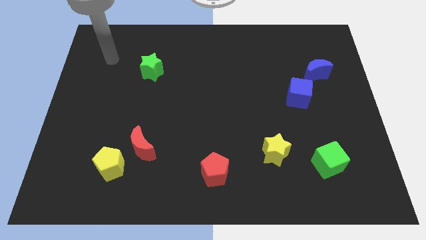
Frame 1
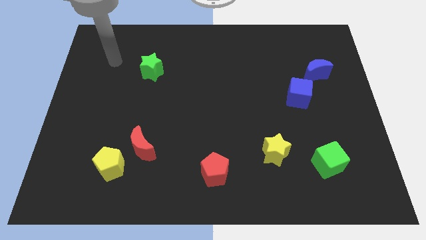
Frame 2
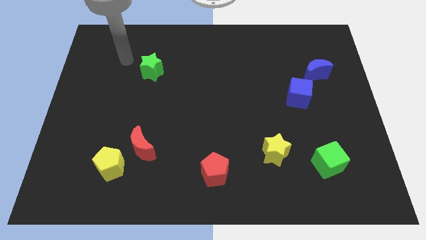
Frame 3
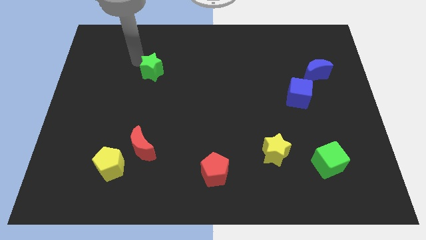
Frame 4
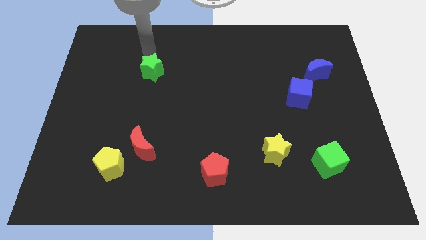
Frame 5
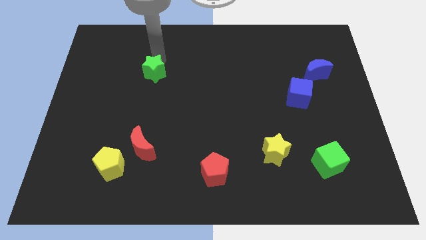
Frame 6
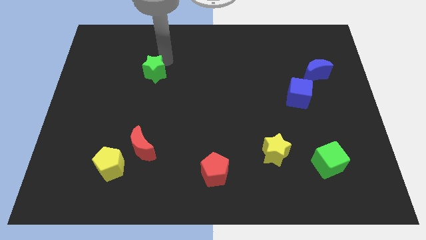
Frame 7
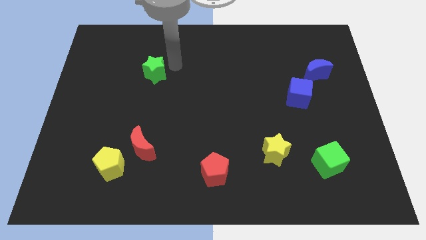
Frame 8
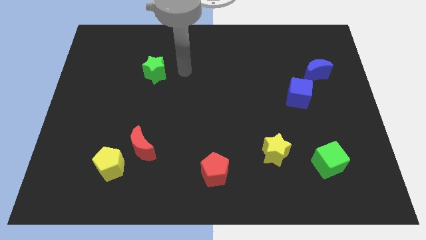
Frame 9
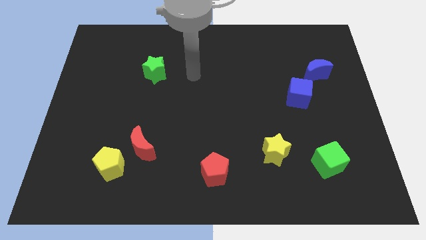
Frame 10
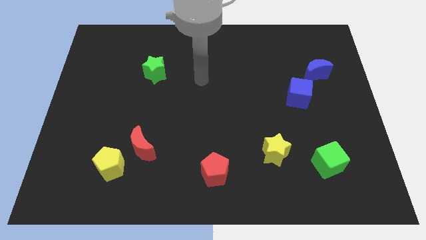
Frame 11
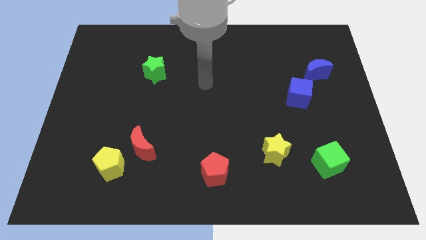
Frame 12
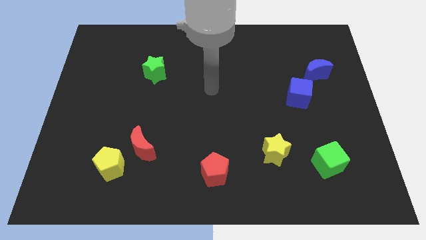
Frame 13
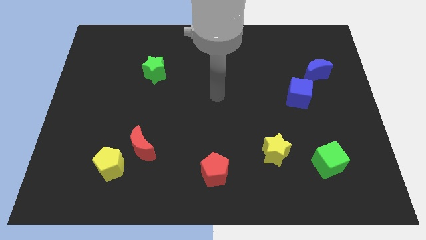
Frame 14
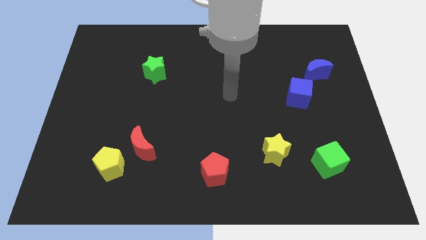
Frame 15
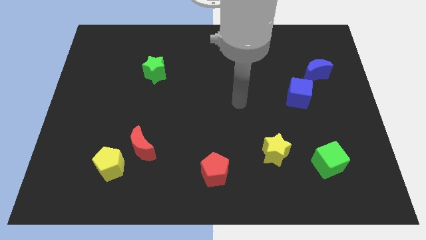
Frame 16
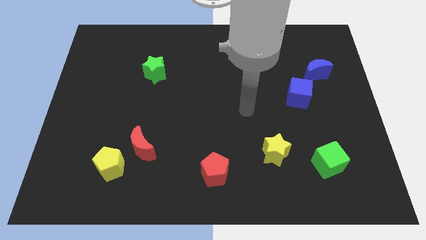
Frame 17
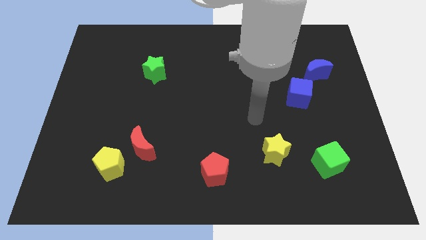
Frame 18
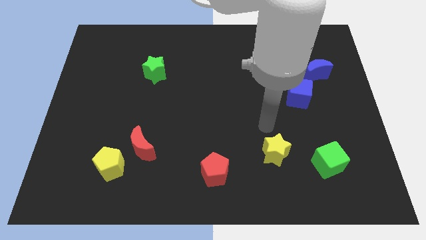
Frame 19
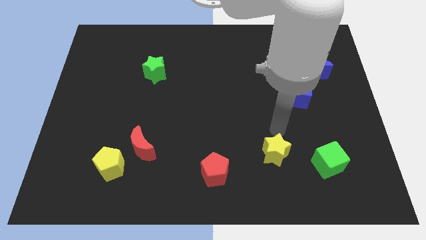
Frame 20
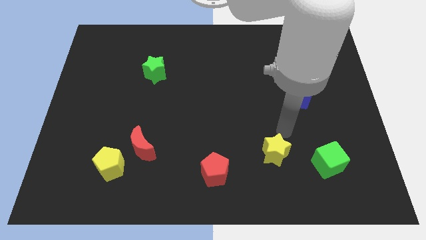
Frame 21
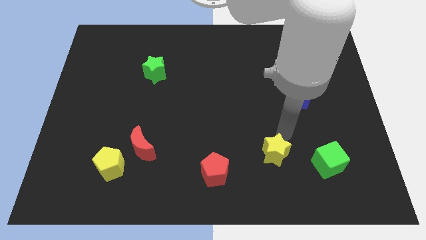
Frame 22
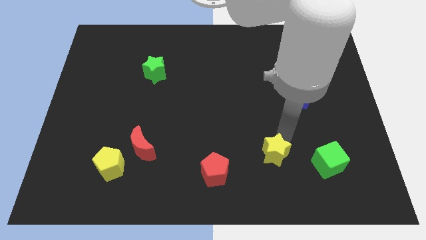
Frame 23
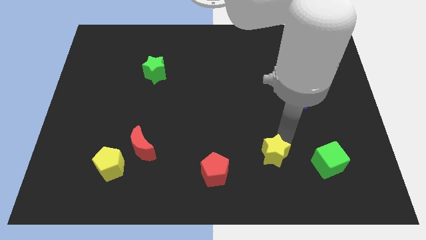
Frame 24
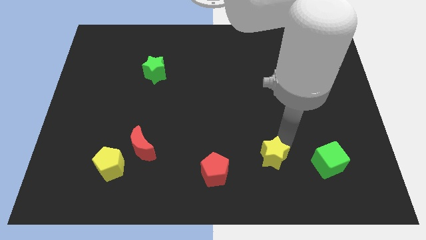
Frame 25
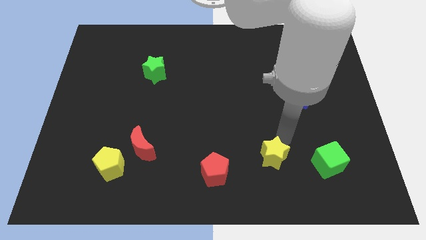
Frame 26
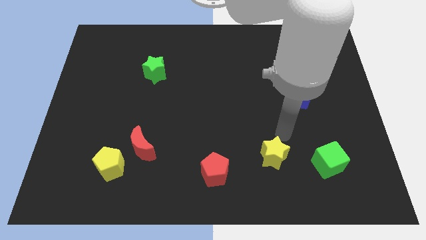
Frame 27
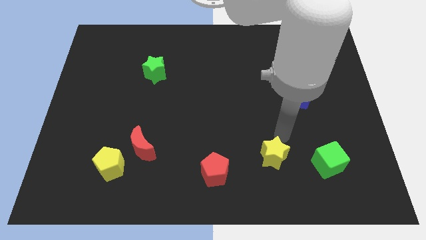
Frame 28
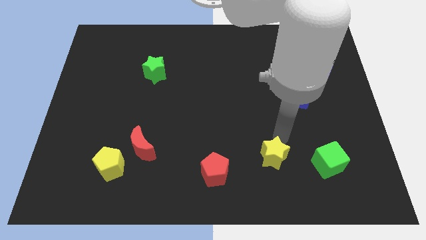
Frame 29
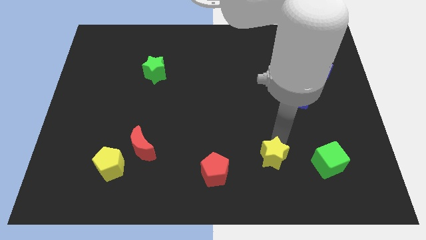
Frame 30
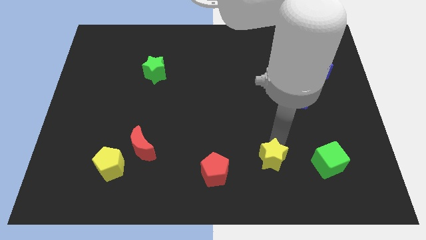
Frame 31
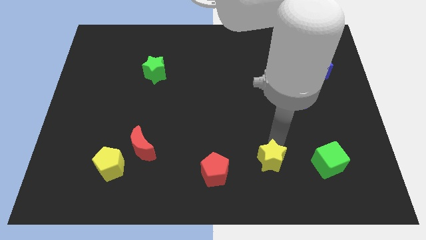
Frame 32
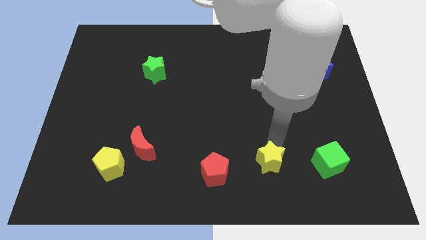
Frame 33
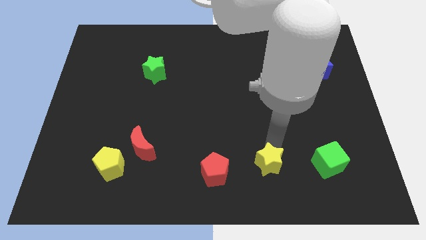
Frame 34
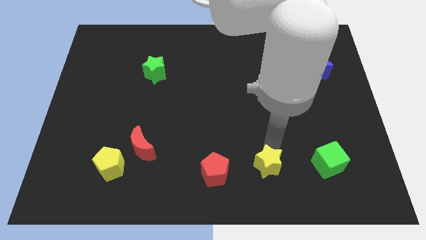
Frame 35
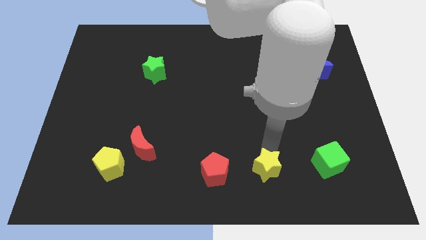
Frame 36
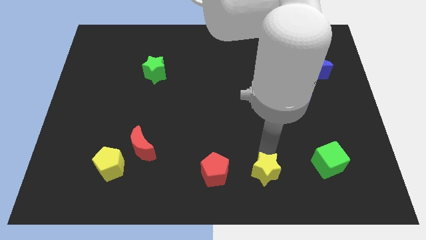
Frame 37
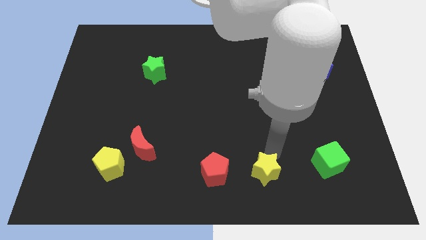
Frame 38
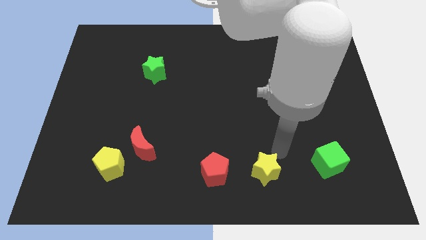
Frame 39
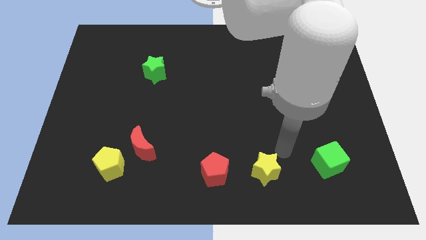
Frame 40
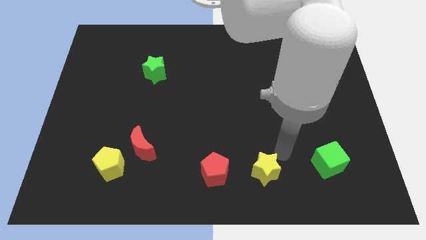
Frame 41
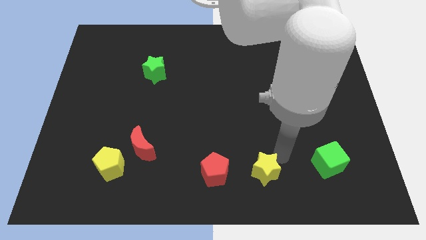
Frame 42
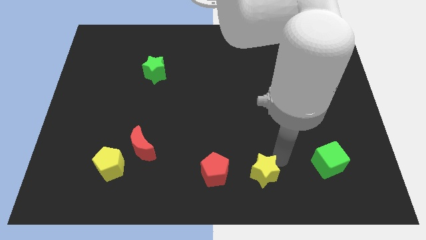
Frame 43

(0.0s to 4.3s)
put the yellow star to the bottom

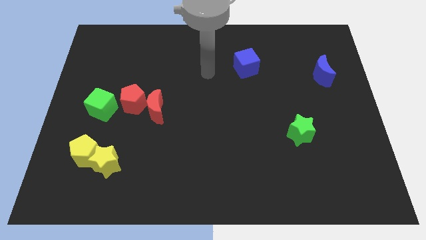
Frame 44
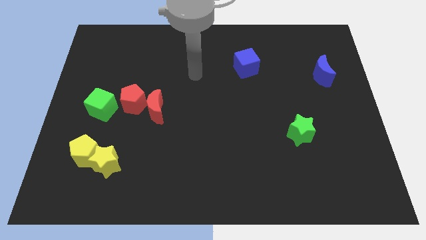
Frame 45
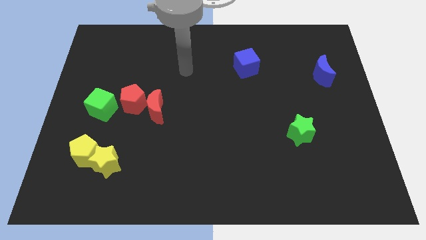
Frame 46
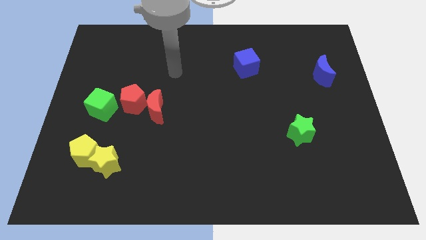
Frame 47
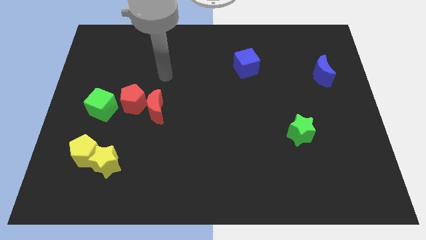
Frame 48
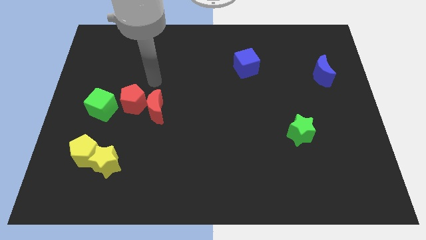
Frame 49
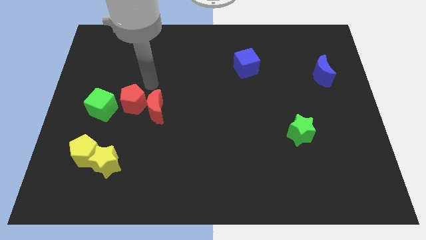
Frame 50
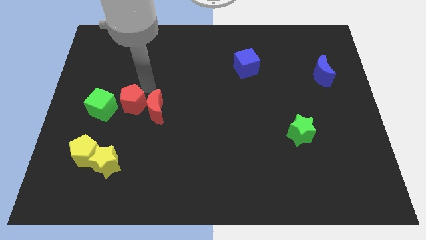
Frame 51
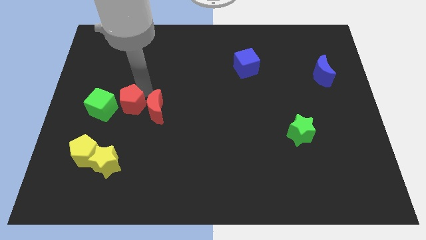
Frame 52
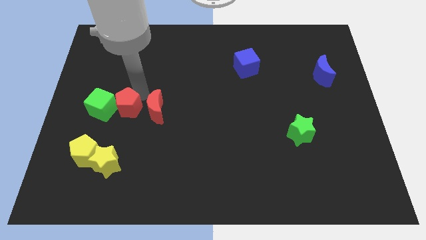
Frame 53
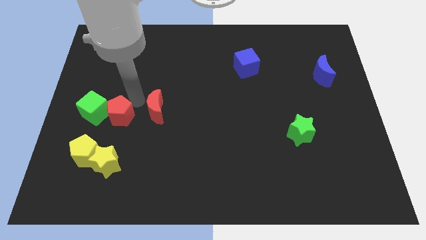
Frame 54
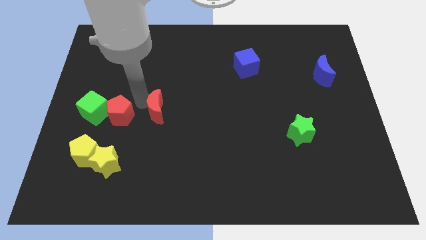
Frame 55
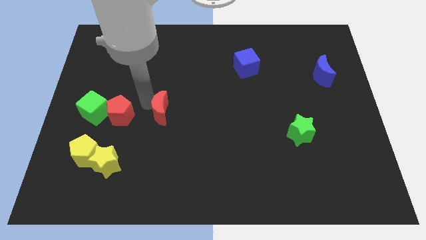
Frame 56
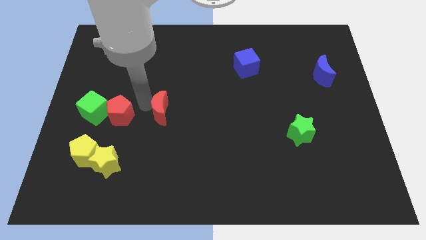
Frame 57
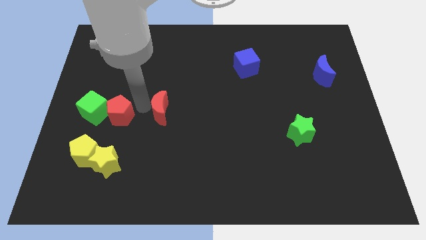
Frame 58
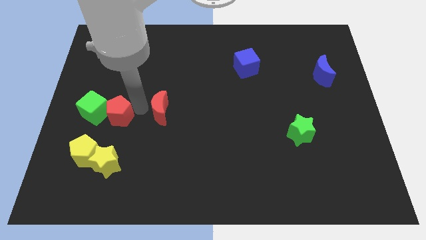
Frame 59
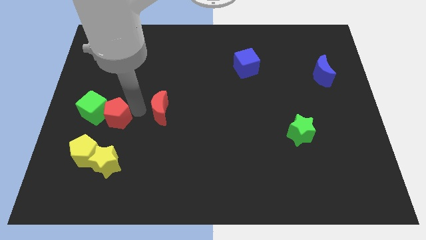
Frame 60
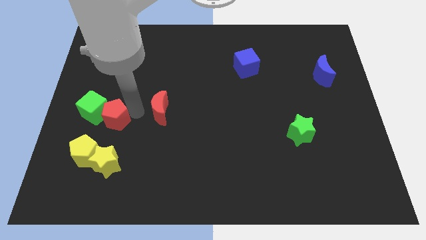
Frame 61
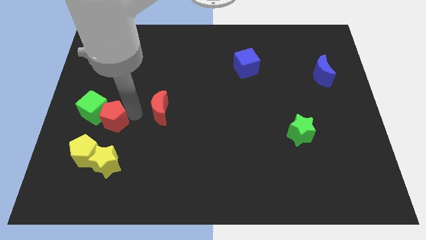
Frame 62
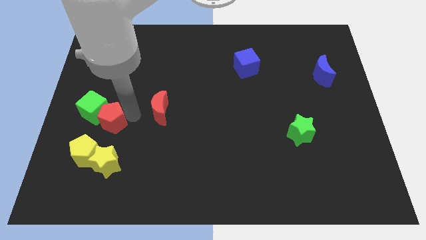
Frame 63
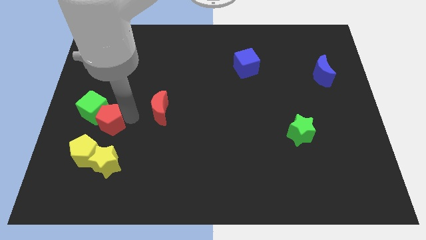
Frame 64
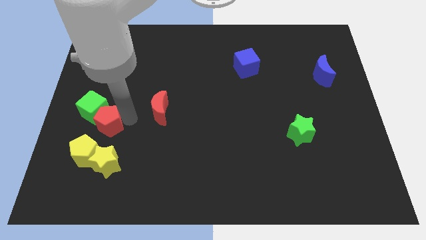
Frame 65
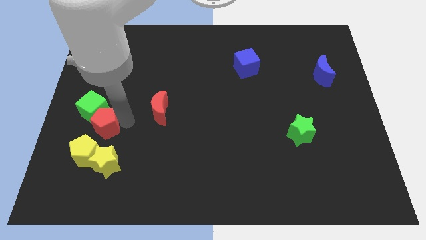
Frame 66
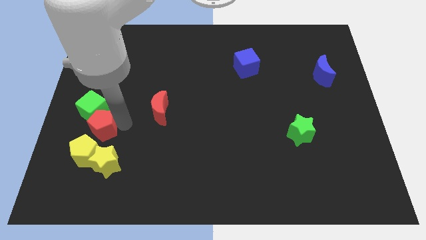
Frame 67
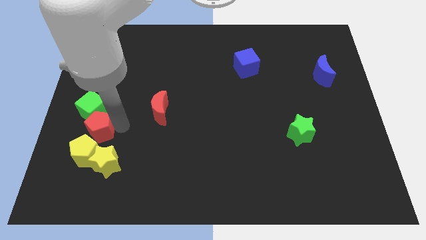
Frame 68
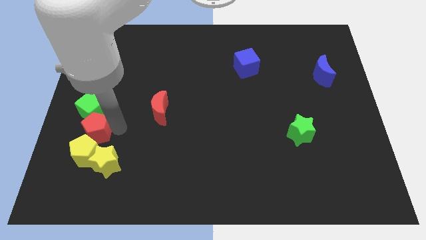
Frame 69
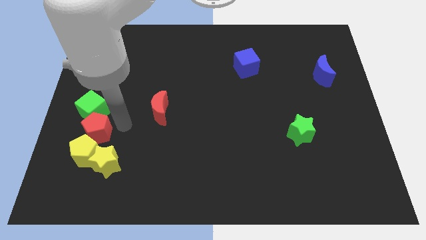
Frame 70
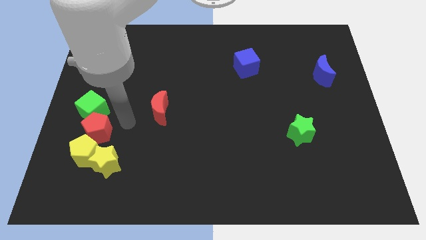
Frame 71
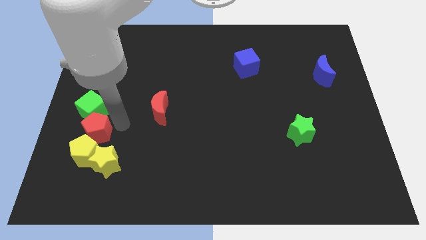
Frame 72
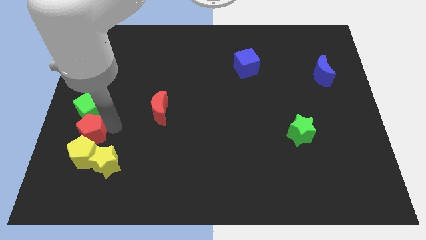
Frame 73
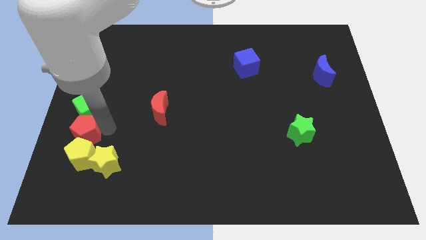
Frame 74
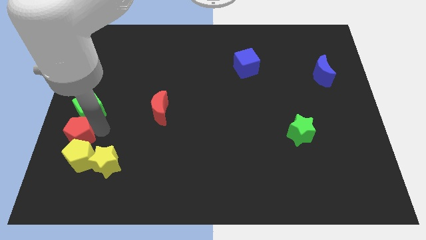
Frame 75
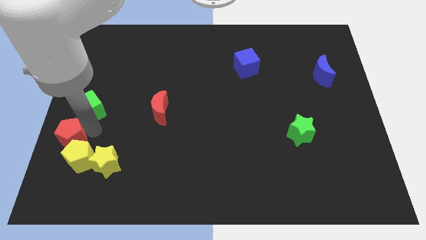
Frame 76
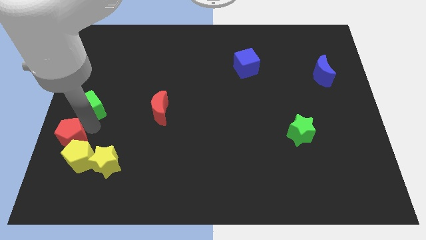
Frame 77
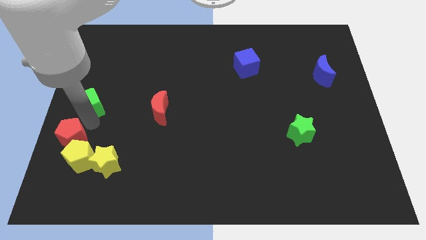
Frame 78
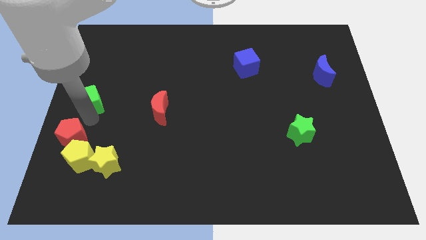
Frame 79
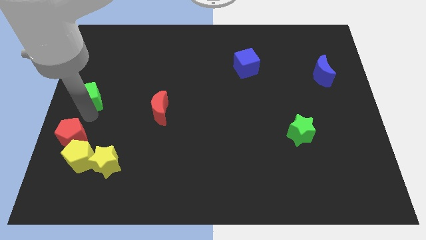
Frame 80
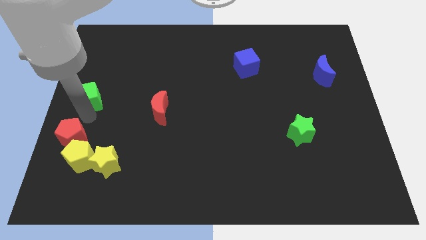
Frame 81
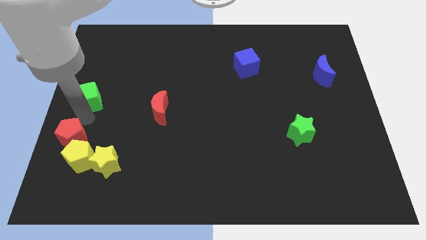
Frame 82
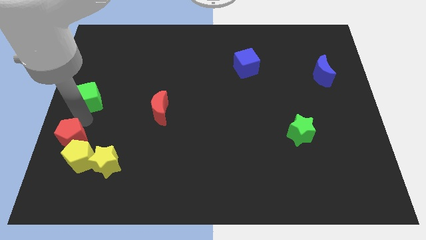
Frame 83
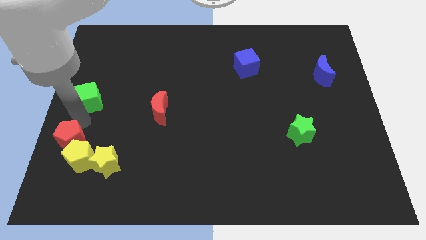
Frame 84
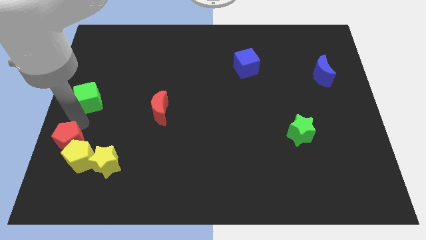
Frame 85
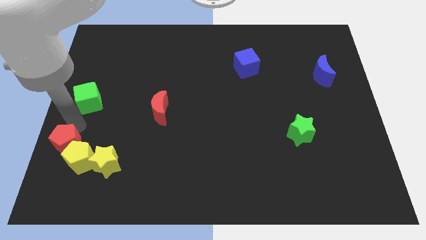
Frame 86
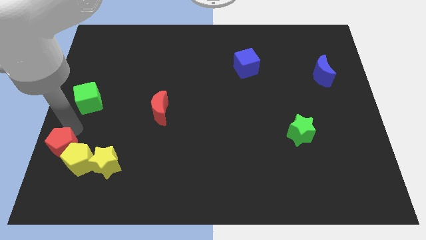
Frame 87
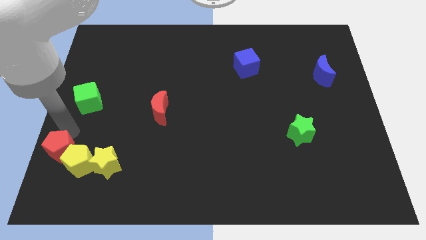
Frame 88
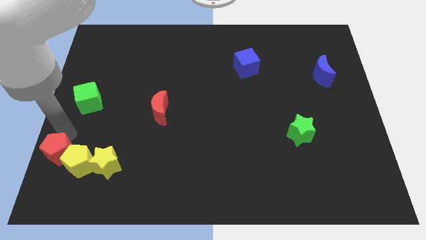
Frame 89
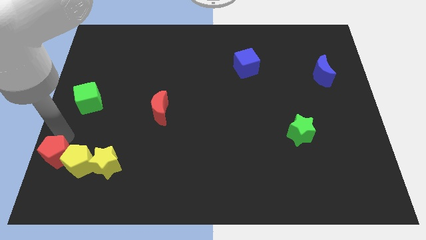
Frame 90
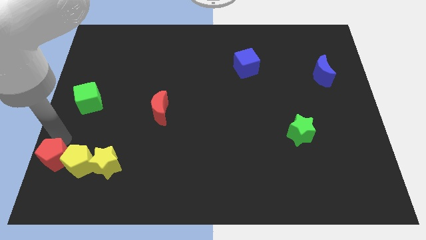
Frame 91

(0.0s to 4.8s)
slide the red pentagon to the bottom left of the board
